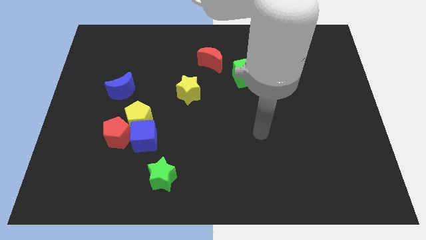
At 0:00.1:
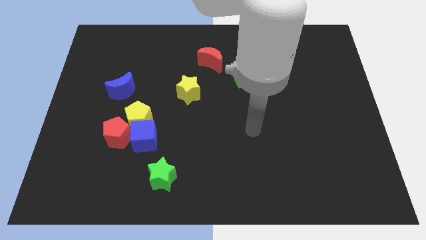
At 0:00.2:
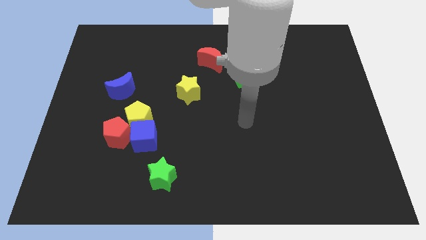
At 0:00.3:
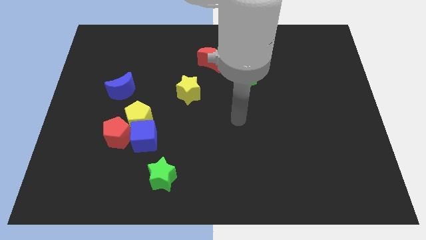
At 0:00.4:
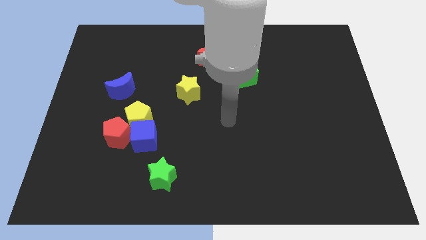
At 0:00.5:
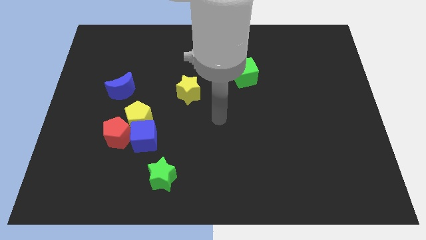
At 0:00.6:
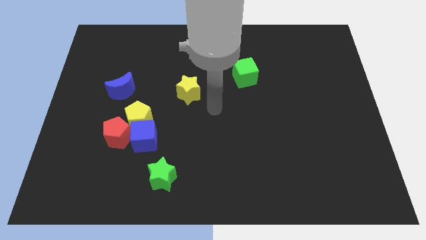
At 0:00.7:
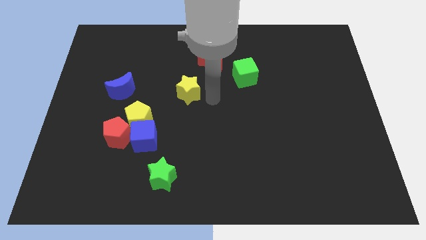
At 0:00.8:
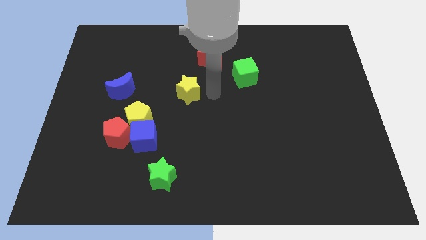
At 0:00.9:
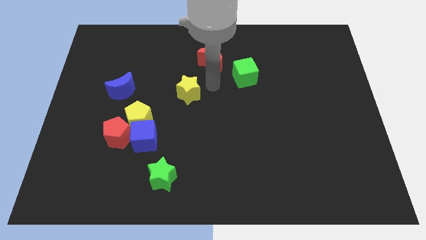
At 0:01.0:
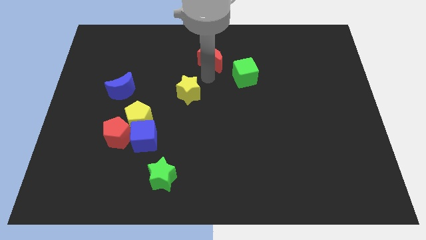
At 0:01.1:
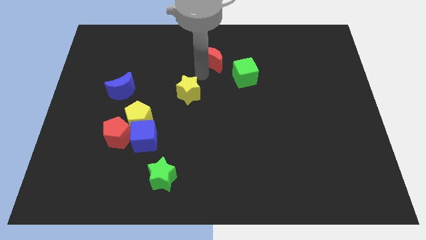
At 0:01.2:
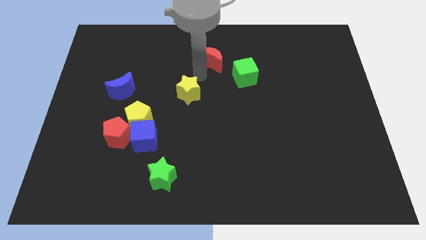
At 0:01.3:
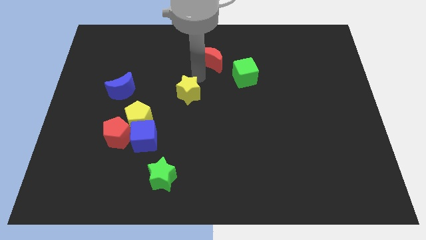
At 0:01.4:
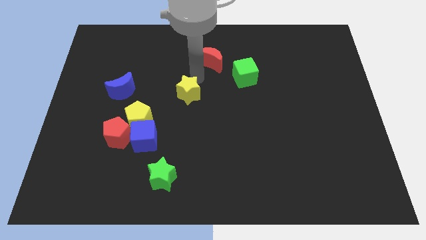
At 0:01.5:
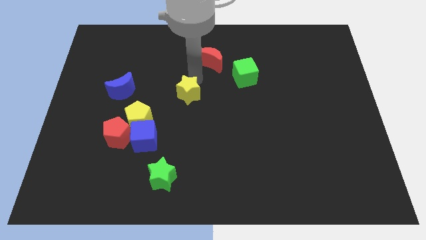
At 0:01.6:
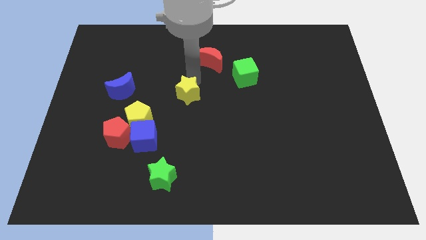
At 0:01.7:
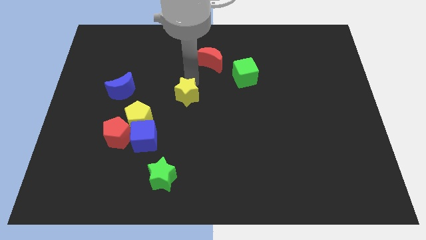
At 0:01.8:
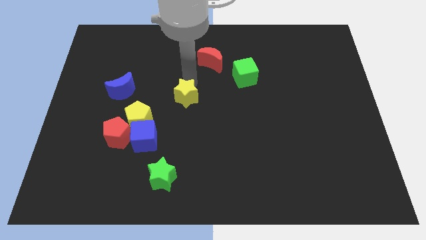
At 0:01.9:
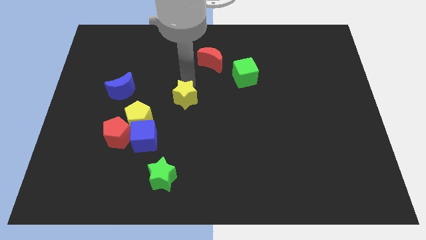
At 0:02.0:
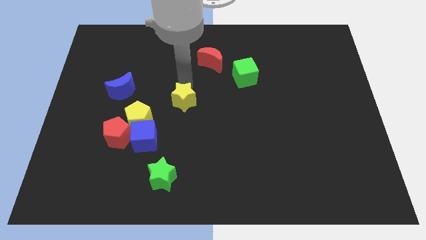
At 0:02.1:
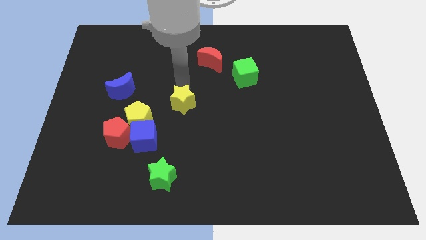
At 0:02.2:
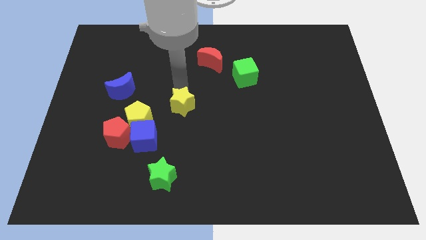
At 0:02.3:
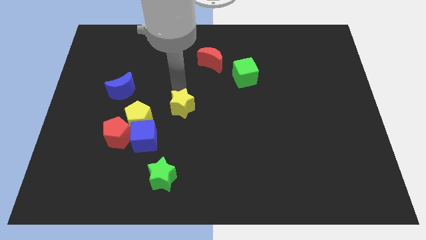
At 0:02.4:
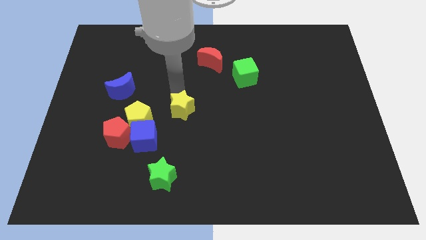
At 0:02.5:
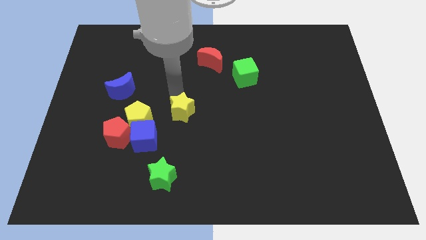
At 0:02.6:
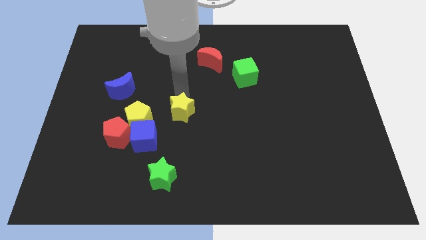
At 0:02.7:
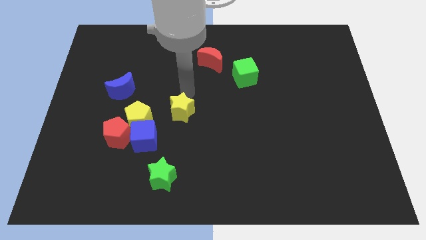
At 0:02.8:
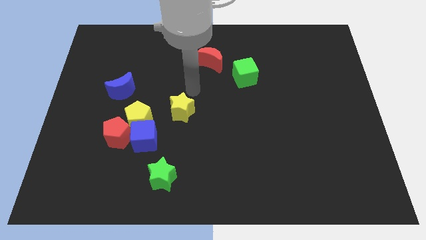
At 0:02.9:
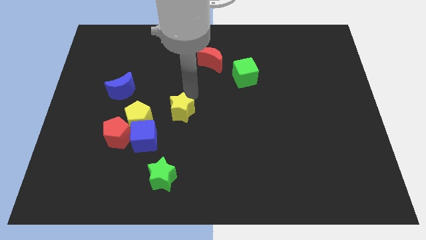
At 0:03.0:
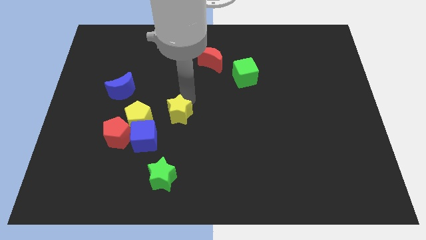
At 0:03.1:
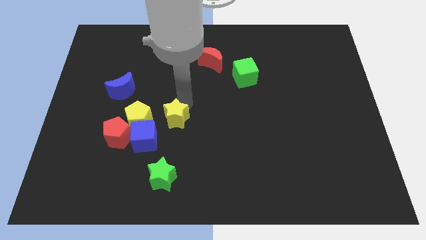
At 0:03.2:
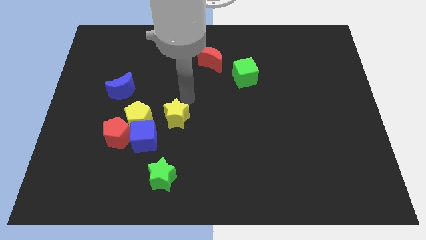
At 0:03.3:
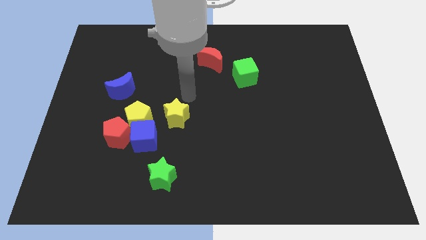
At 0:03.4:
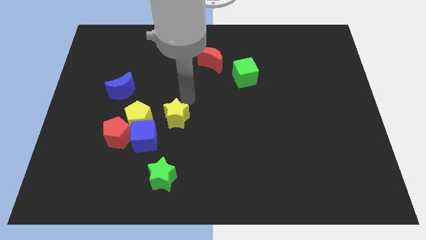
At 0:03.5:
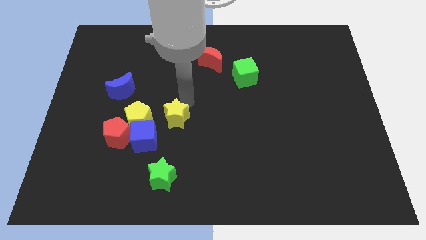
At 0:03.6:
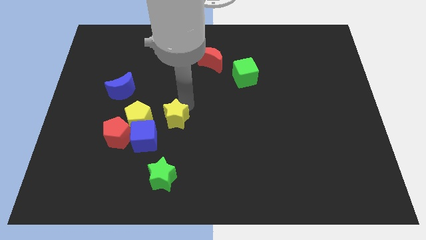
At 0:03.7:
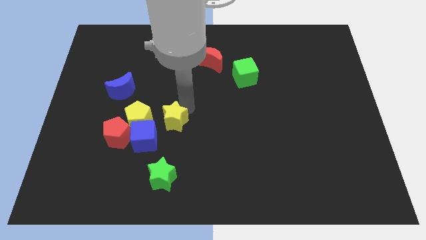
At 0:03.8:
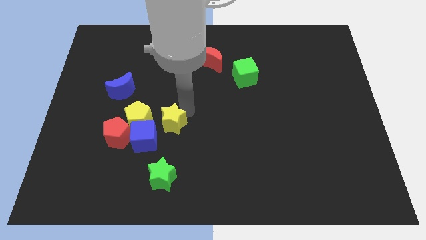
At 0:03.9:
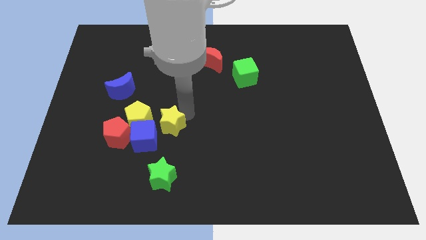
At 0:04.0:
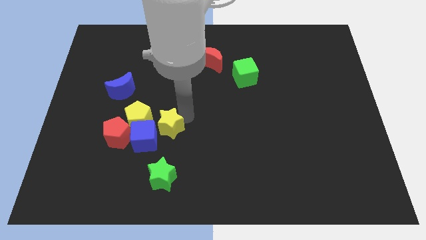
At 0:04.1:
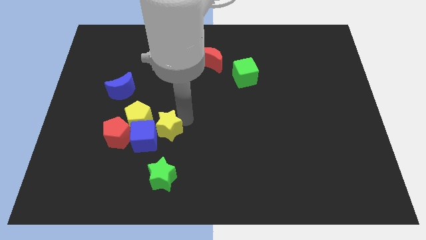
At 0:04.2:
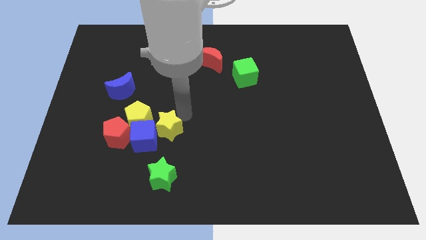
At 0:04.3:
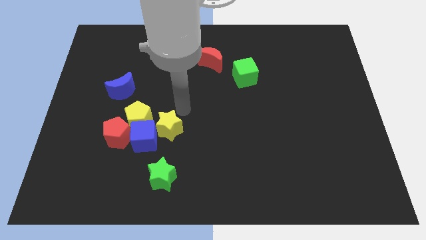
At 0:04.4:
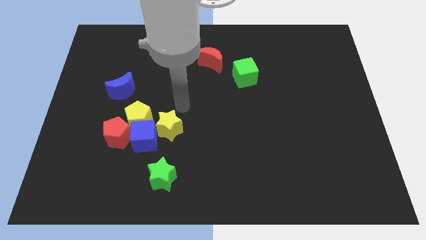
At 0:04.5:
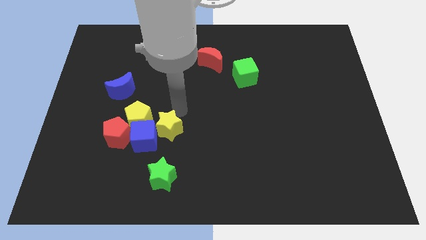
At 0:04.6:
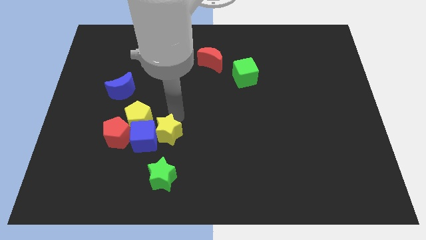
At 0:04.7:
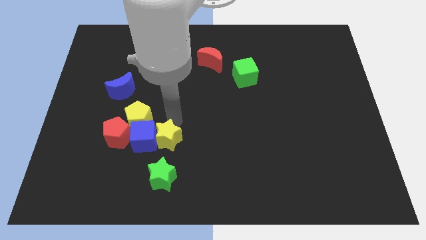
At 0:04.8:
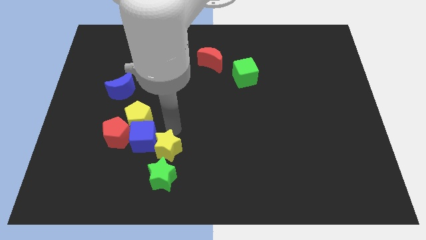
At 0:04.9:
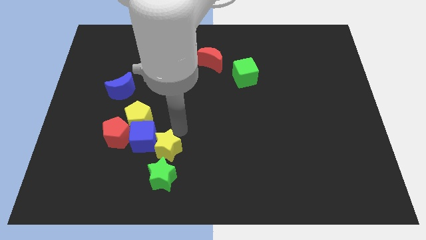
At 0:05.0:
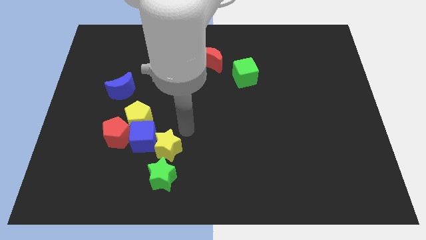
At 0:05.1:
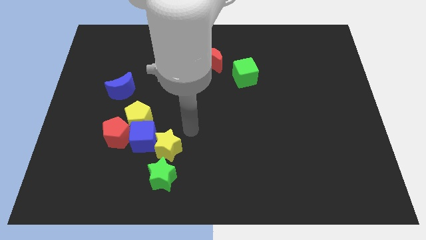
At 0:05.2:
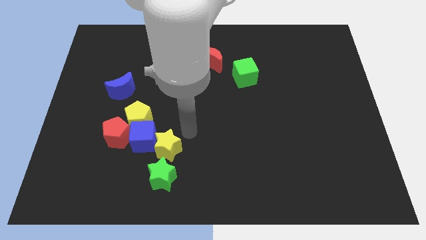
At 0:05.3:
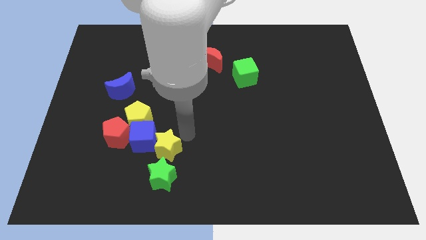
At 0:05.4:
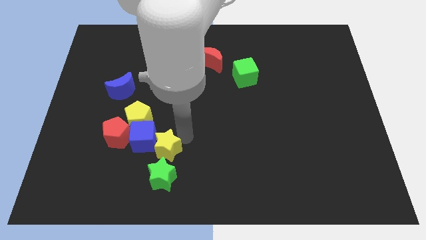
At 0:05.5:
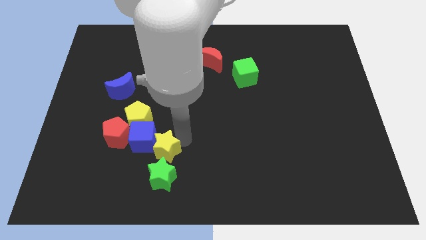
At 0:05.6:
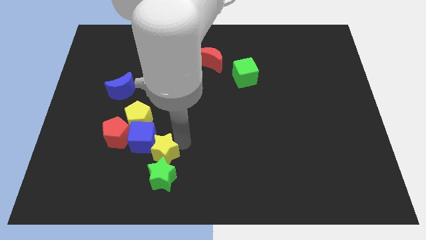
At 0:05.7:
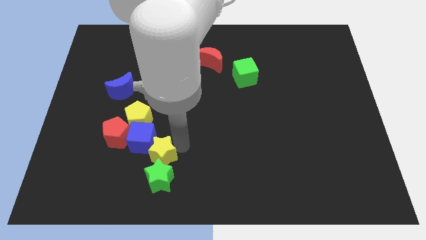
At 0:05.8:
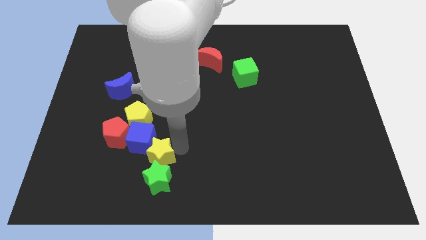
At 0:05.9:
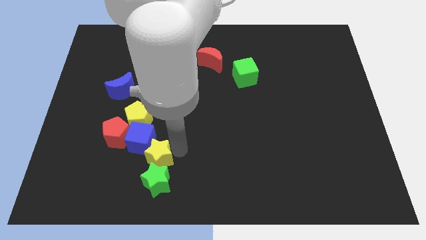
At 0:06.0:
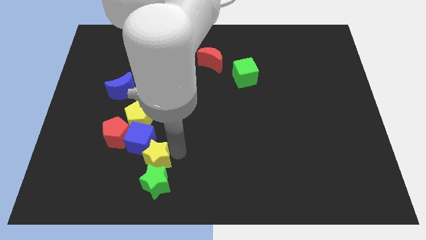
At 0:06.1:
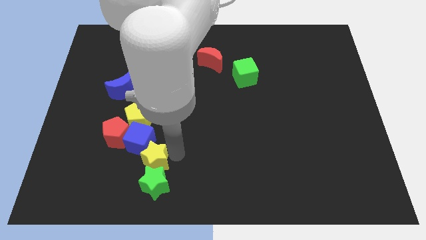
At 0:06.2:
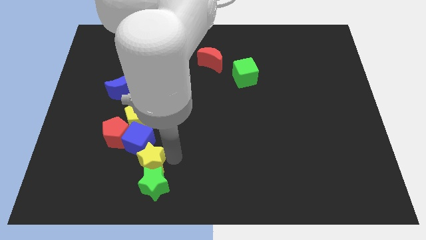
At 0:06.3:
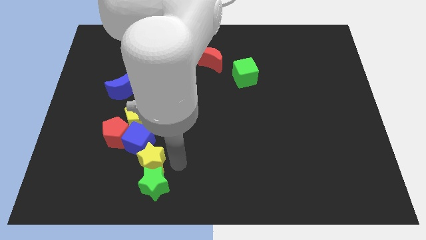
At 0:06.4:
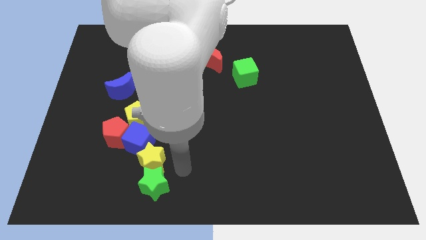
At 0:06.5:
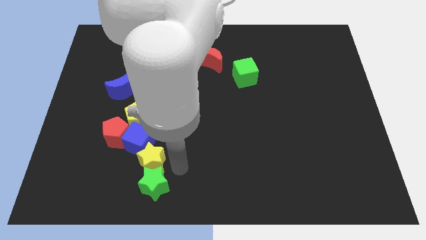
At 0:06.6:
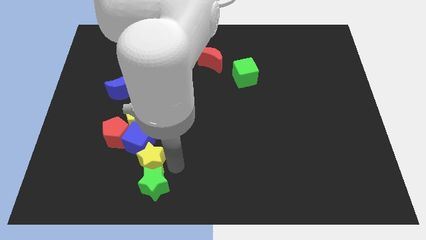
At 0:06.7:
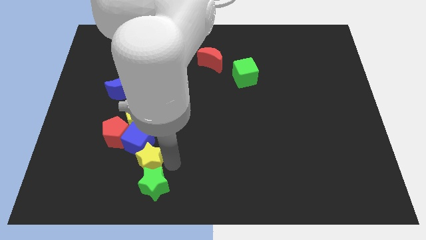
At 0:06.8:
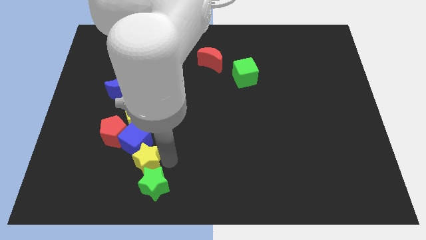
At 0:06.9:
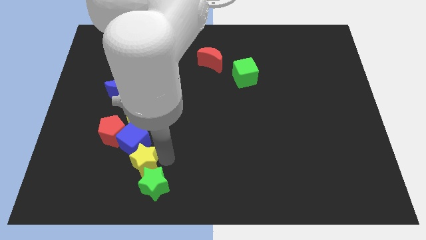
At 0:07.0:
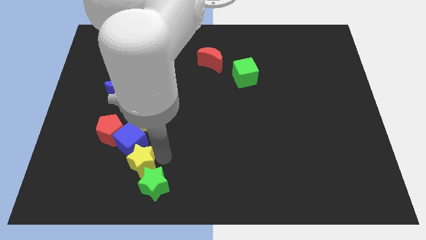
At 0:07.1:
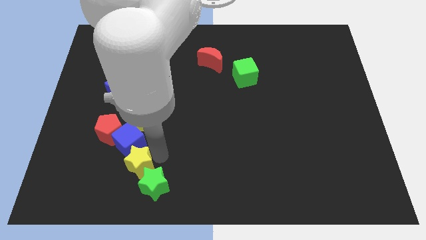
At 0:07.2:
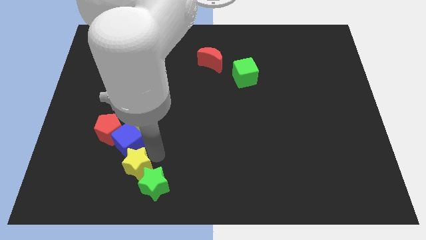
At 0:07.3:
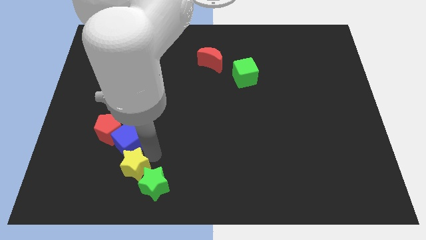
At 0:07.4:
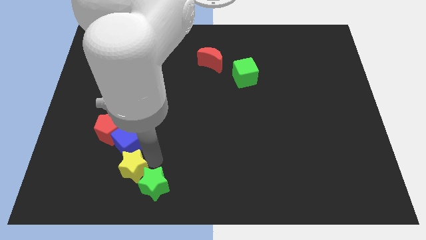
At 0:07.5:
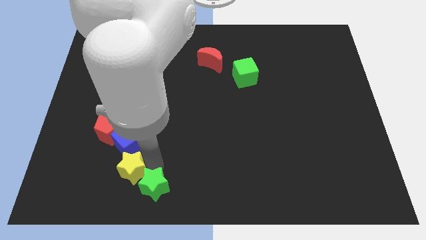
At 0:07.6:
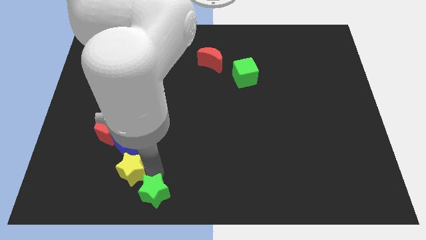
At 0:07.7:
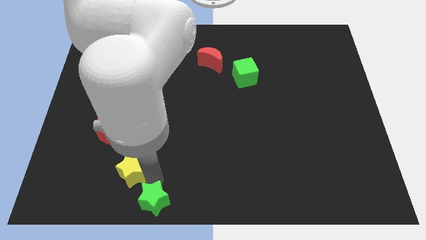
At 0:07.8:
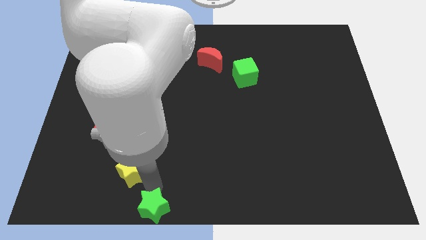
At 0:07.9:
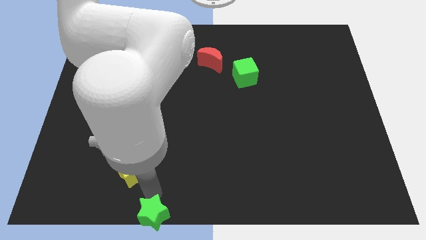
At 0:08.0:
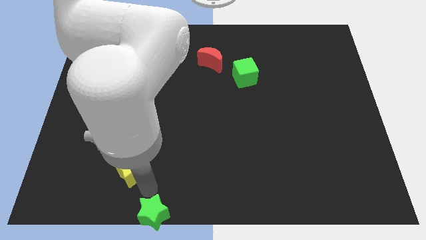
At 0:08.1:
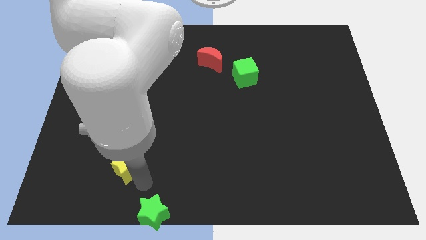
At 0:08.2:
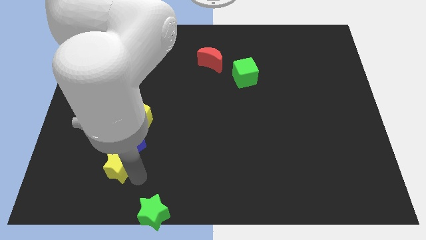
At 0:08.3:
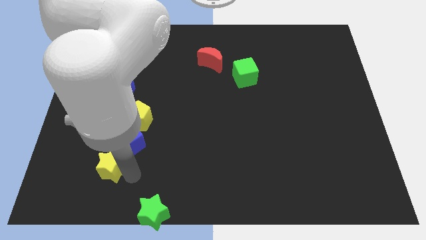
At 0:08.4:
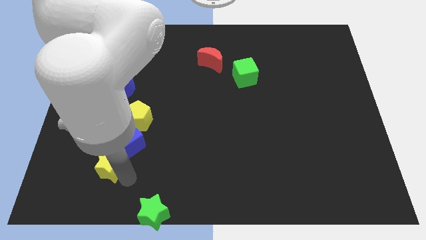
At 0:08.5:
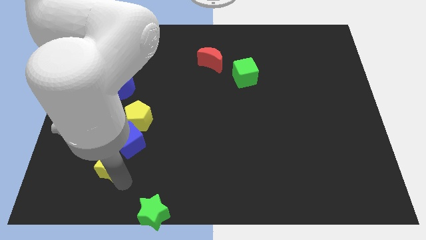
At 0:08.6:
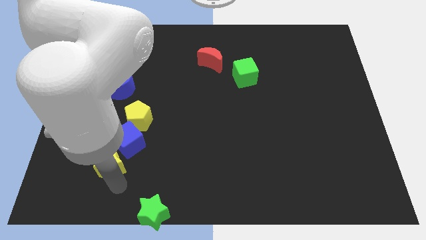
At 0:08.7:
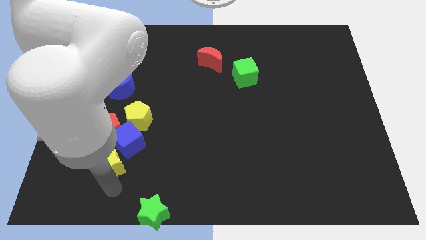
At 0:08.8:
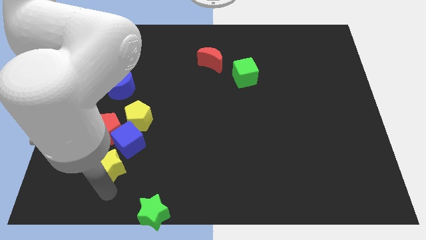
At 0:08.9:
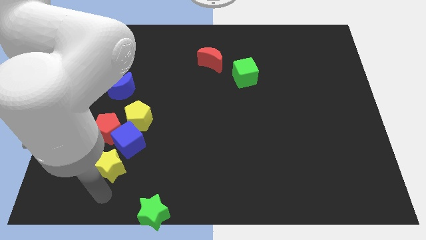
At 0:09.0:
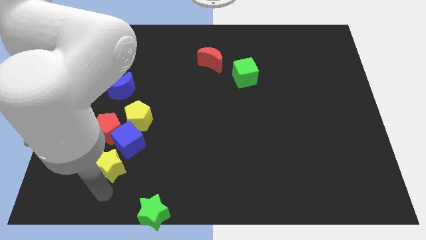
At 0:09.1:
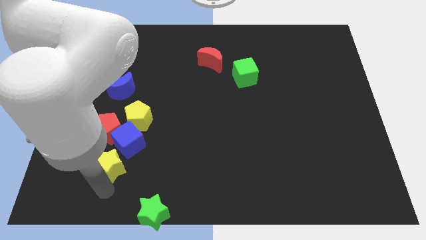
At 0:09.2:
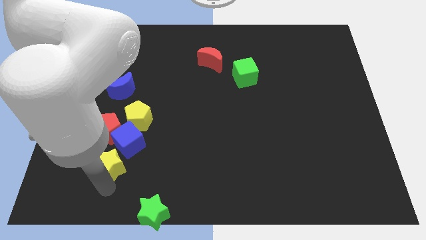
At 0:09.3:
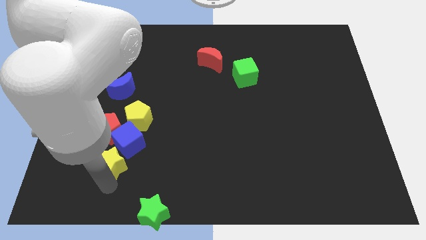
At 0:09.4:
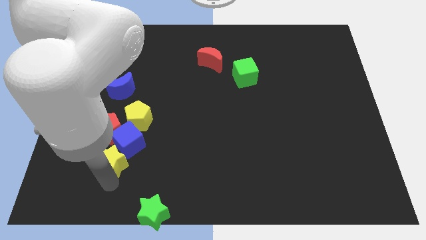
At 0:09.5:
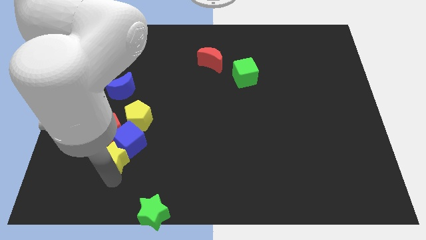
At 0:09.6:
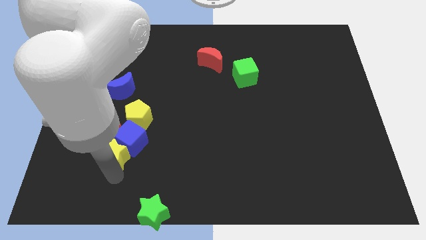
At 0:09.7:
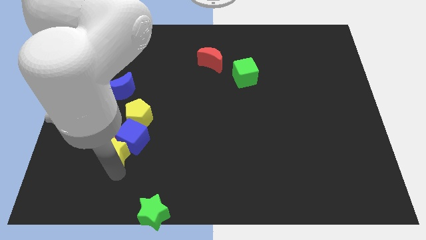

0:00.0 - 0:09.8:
move the yellow star to the red pentagon
